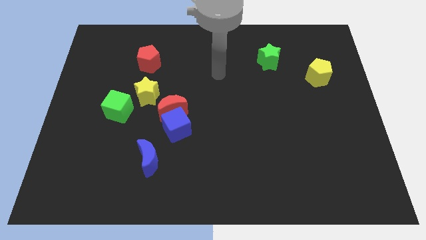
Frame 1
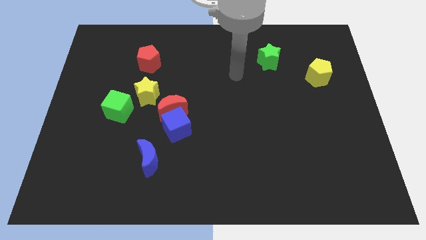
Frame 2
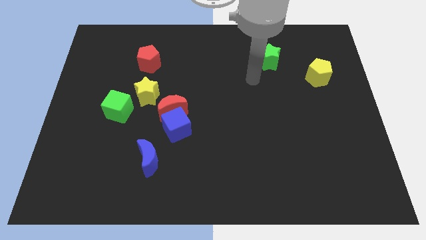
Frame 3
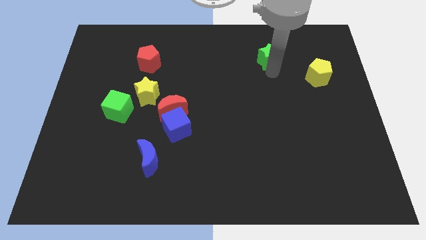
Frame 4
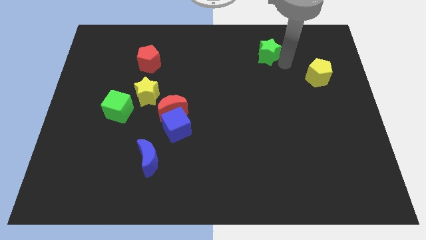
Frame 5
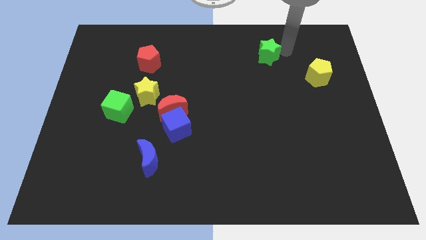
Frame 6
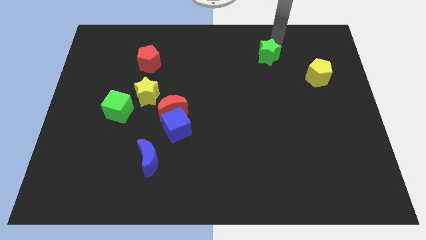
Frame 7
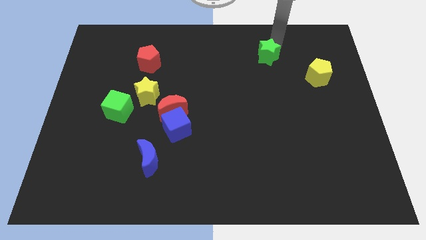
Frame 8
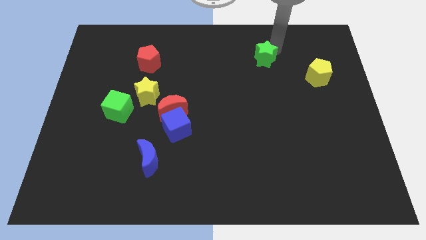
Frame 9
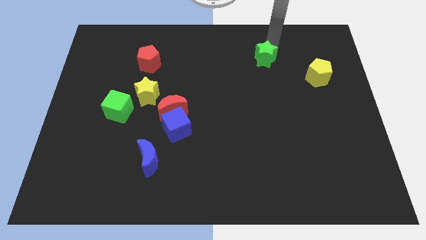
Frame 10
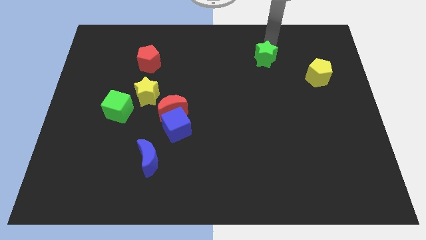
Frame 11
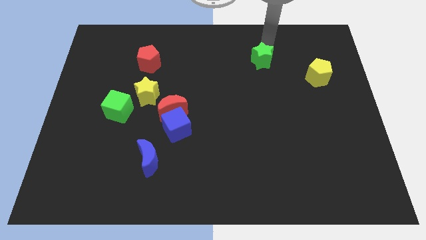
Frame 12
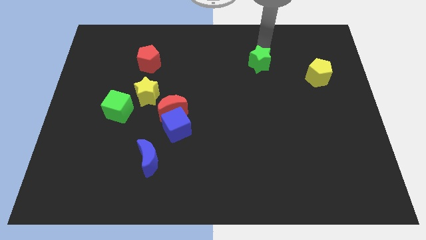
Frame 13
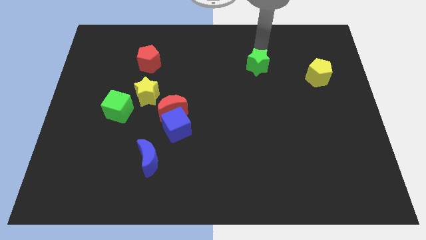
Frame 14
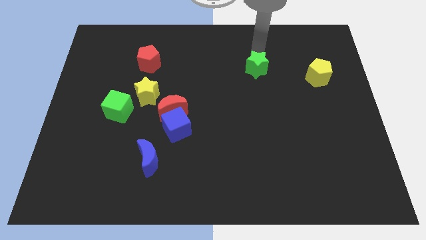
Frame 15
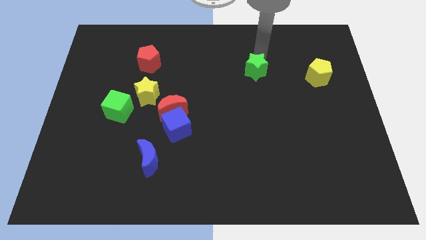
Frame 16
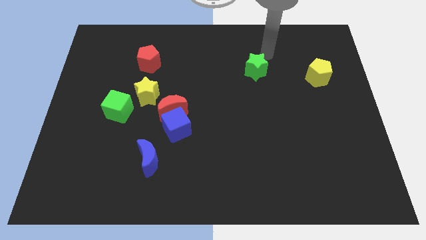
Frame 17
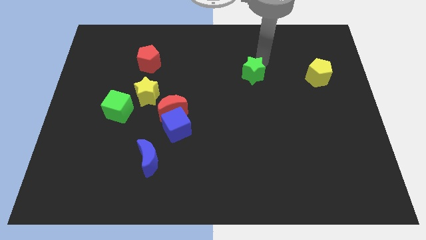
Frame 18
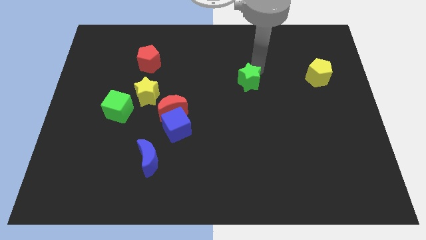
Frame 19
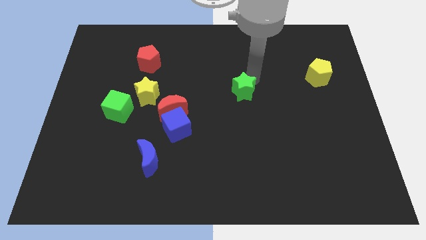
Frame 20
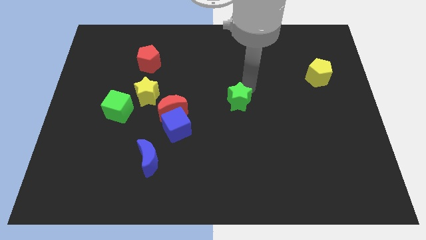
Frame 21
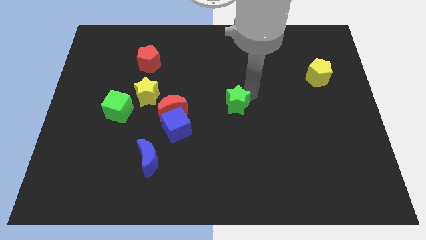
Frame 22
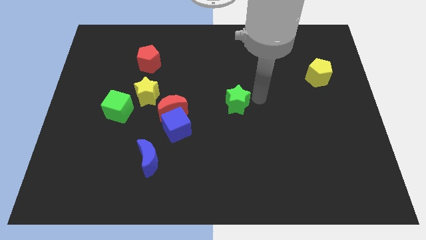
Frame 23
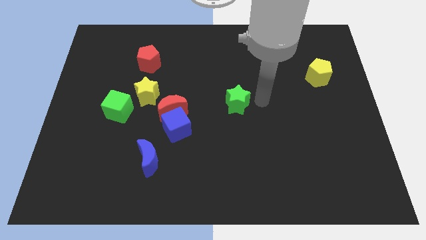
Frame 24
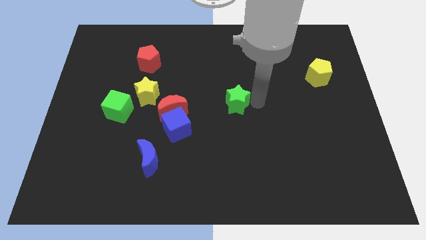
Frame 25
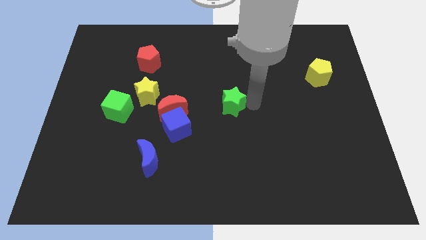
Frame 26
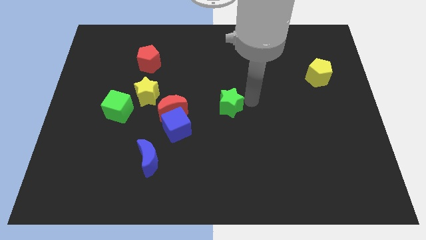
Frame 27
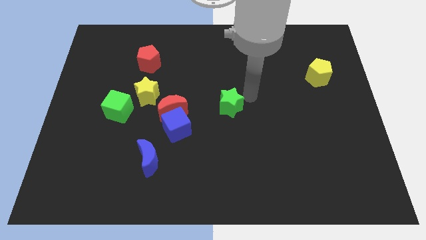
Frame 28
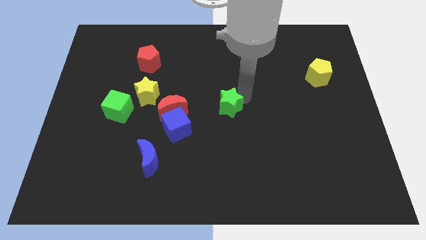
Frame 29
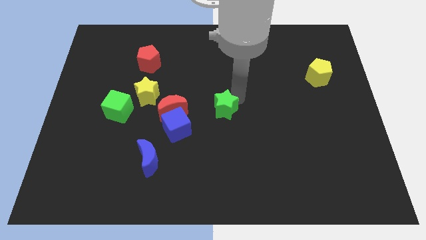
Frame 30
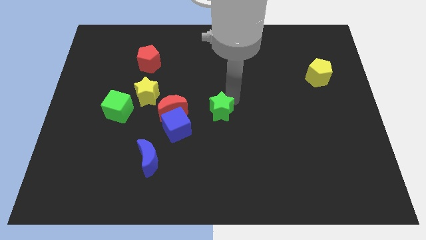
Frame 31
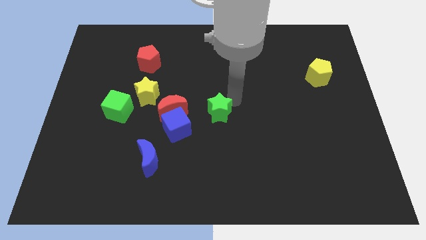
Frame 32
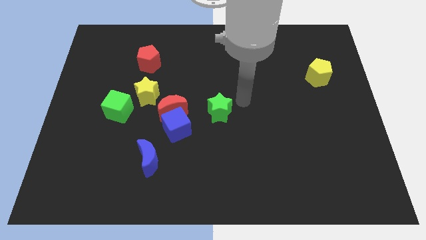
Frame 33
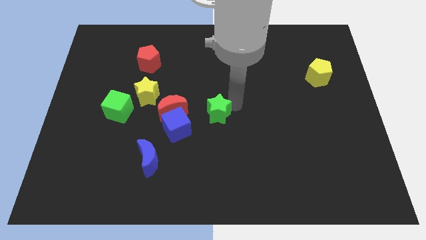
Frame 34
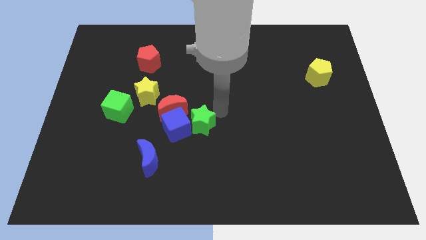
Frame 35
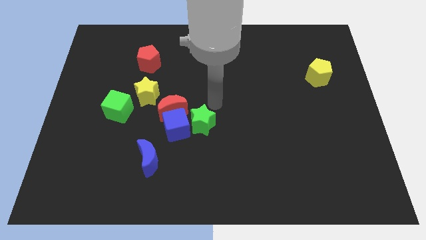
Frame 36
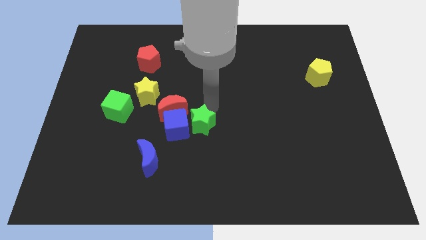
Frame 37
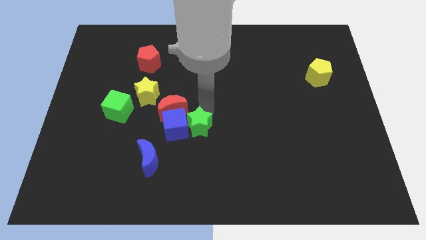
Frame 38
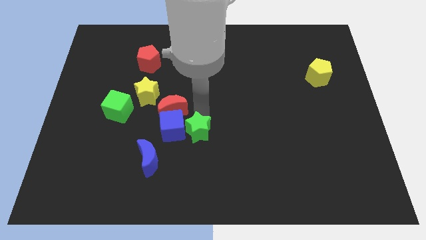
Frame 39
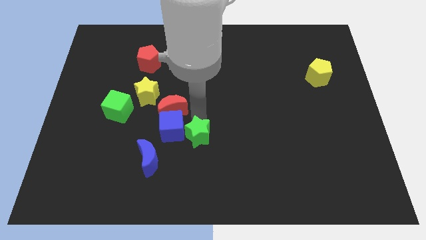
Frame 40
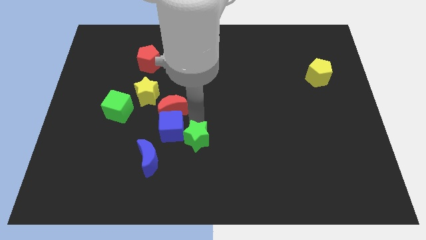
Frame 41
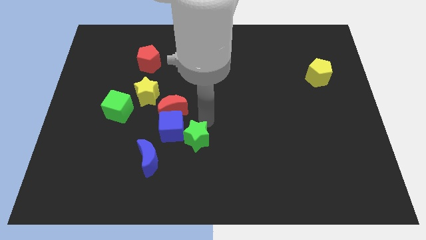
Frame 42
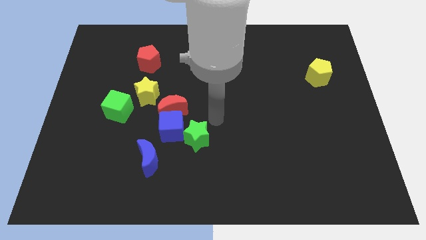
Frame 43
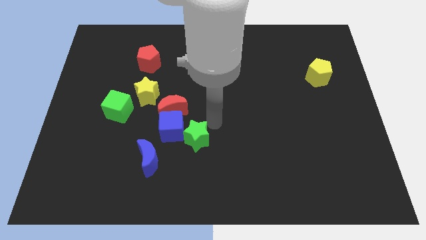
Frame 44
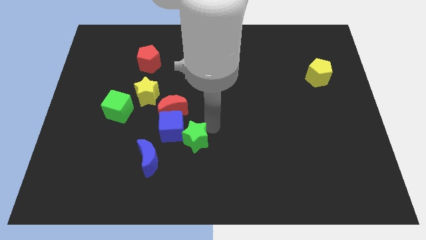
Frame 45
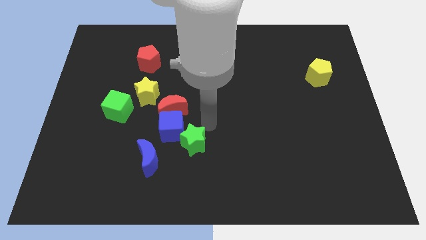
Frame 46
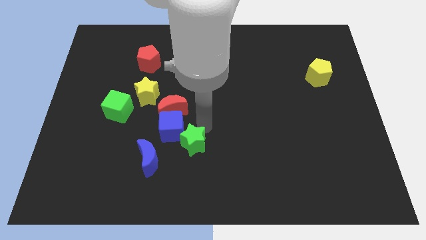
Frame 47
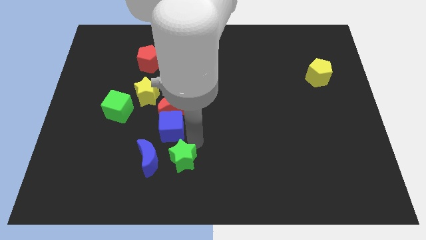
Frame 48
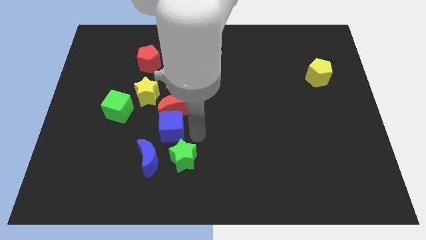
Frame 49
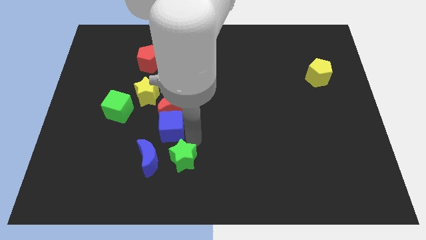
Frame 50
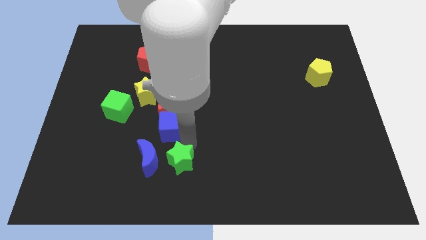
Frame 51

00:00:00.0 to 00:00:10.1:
put the green star diagonally down and to the right of the blue moon

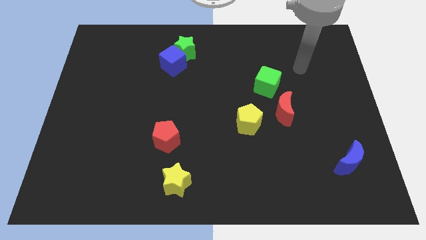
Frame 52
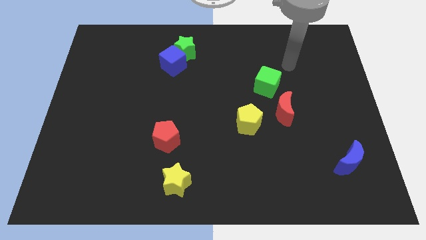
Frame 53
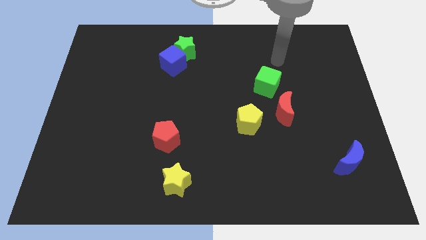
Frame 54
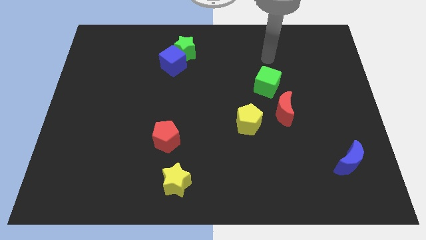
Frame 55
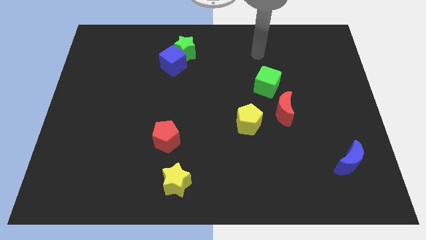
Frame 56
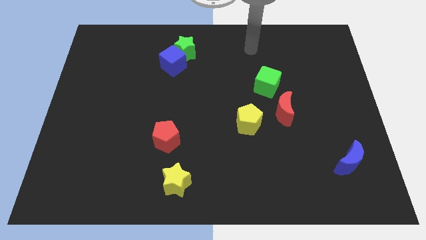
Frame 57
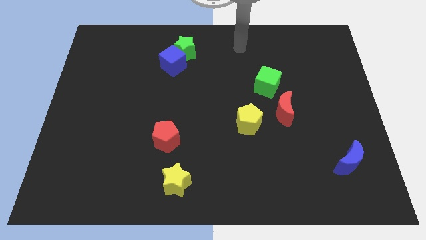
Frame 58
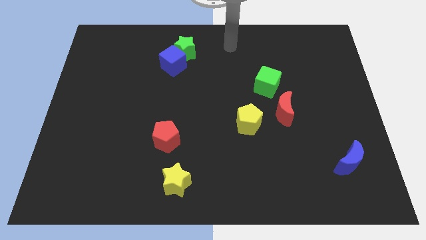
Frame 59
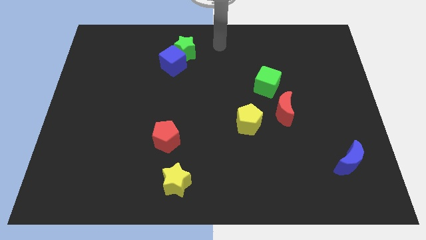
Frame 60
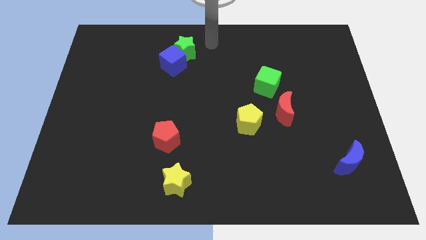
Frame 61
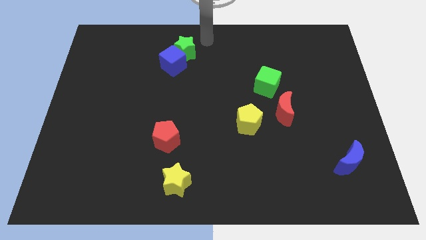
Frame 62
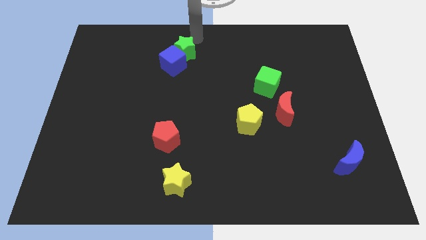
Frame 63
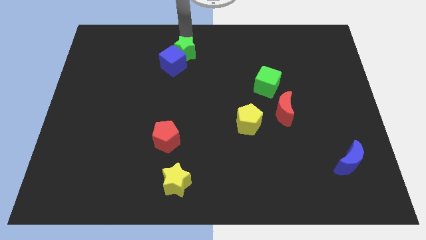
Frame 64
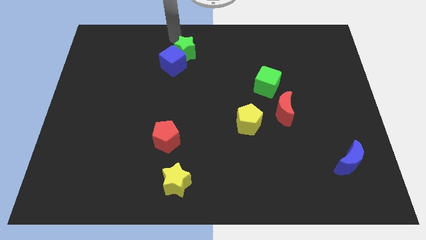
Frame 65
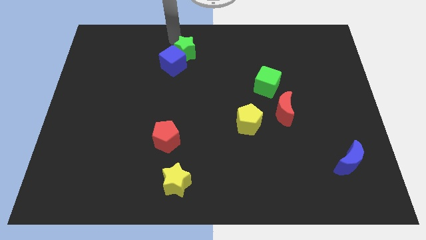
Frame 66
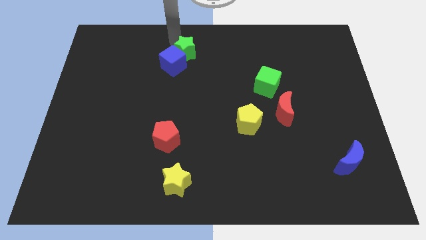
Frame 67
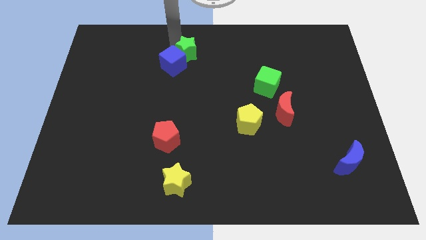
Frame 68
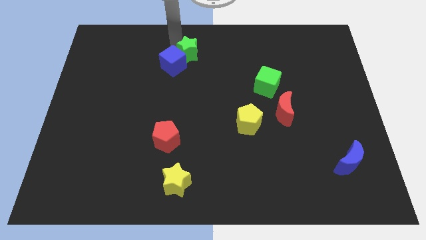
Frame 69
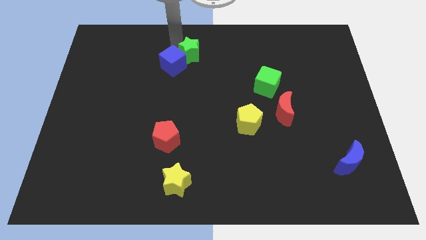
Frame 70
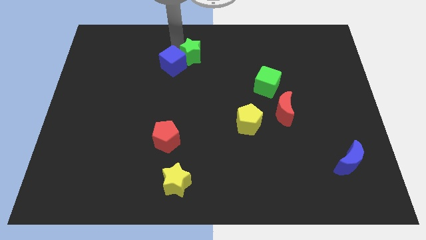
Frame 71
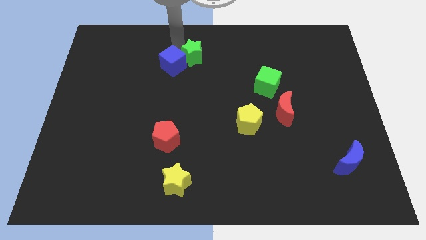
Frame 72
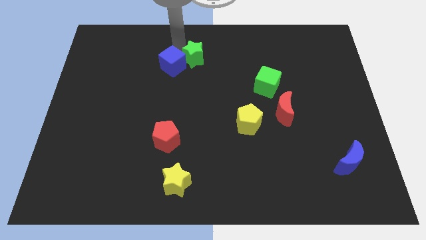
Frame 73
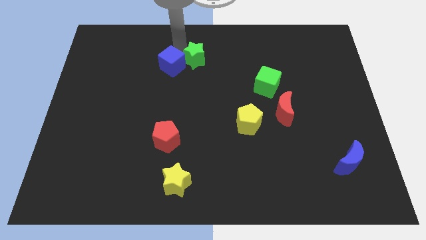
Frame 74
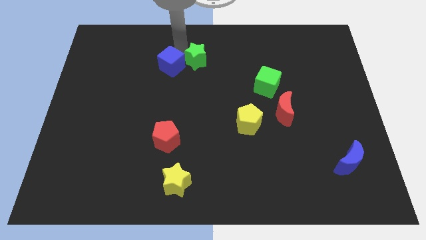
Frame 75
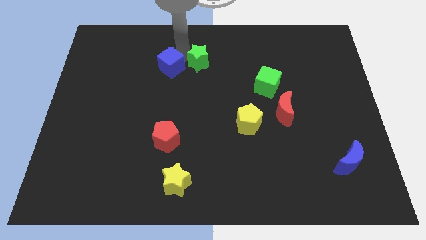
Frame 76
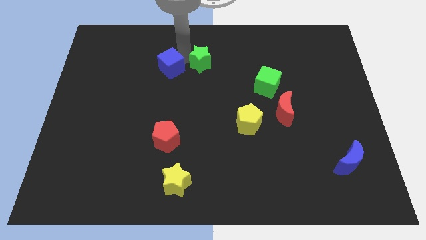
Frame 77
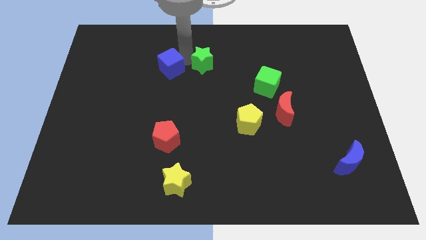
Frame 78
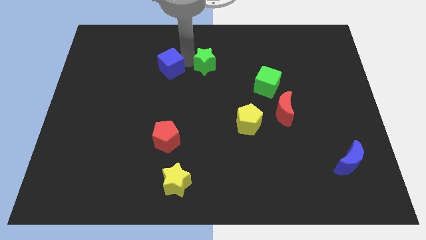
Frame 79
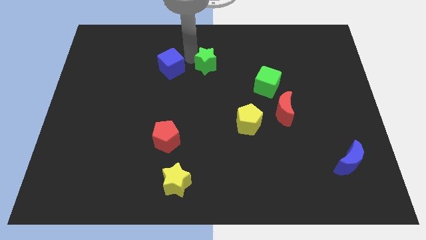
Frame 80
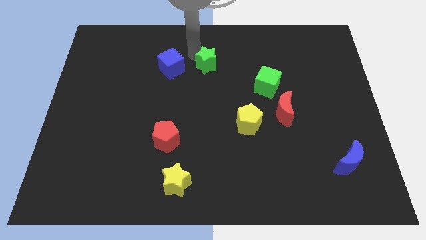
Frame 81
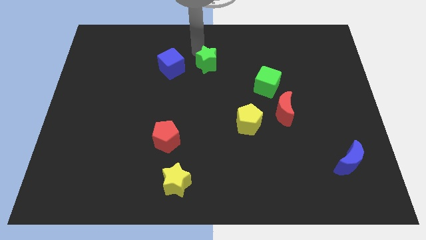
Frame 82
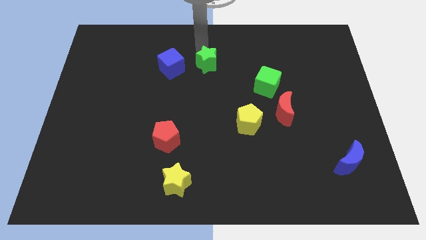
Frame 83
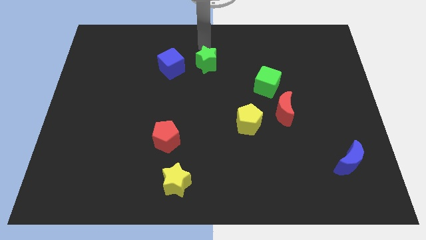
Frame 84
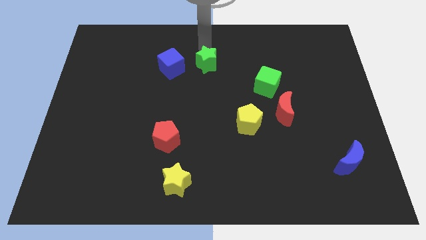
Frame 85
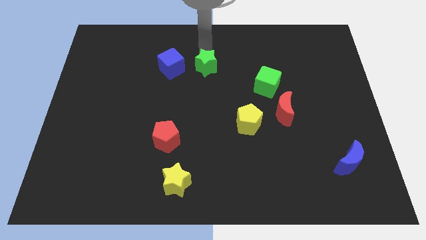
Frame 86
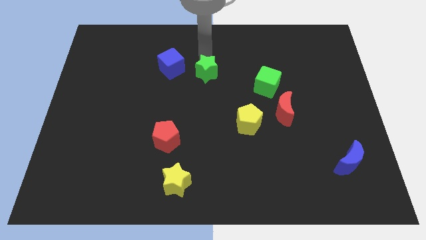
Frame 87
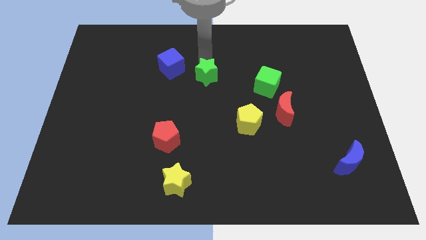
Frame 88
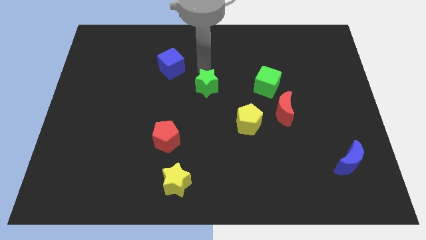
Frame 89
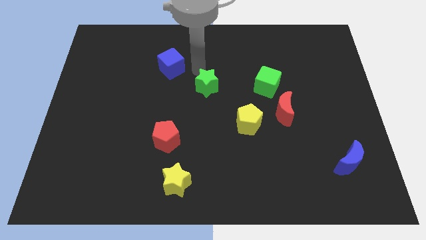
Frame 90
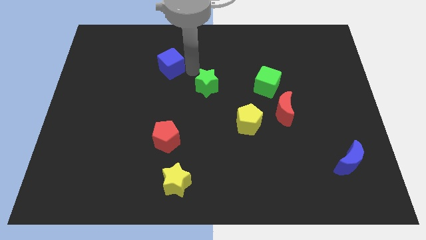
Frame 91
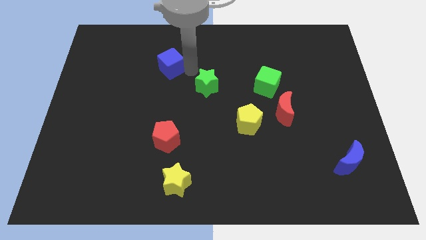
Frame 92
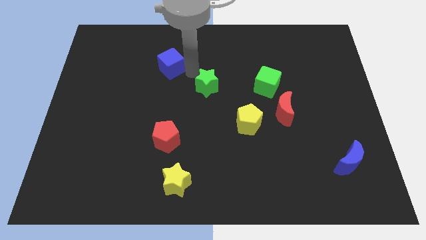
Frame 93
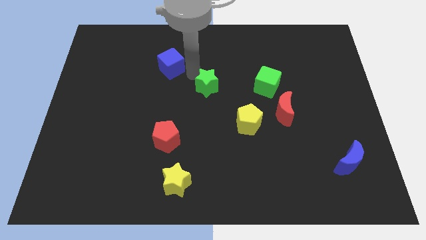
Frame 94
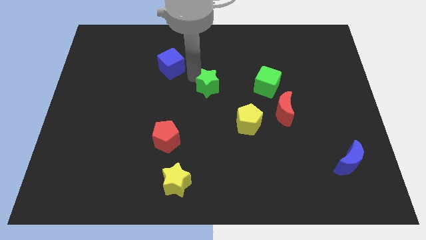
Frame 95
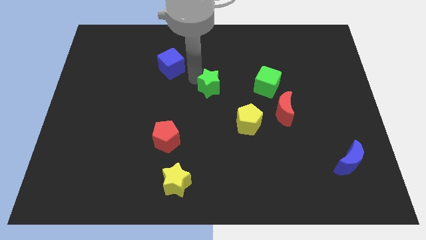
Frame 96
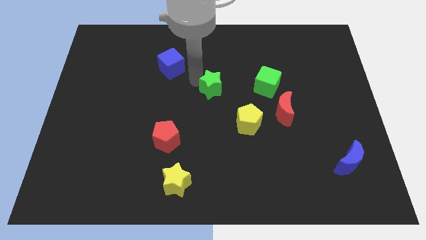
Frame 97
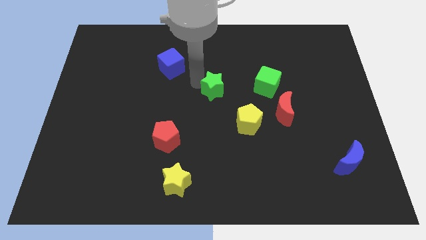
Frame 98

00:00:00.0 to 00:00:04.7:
put the green star to the top left of the yellow pentagon
